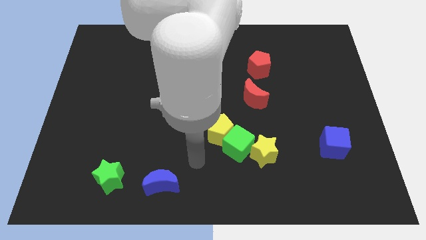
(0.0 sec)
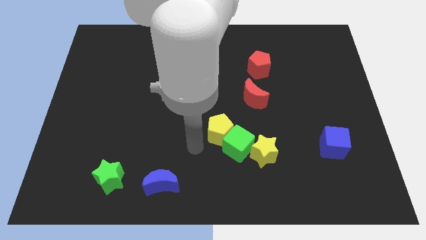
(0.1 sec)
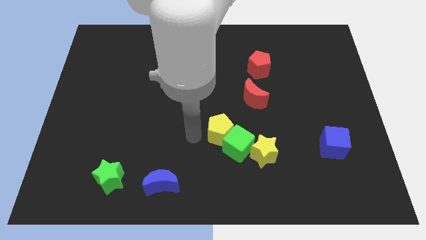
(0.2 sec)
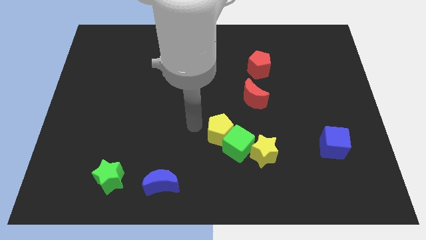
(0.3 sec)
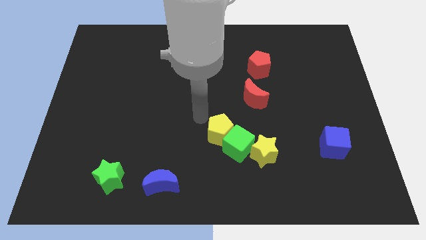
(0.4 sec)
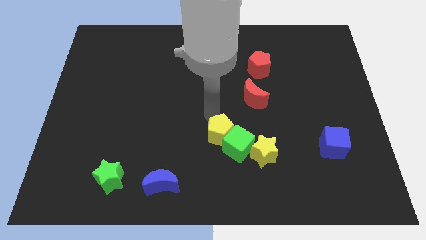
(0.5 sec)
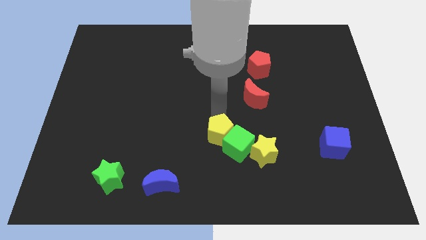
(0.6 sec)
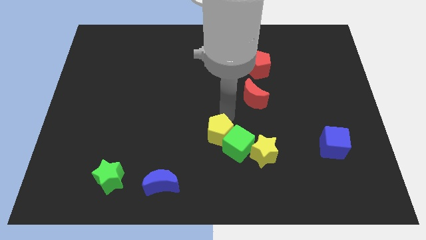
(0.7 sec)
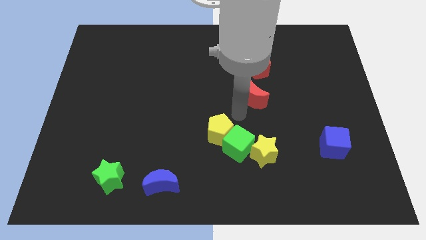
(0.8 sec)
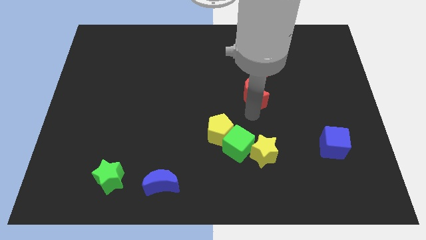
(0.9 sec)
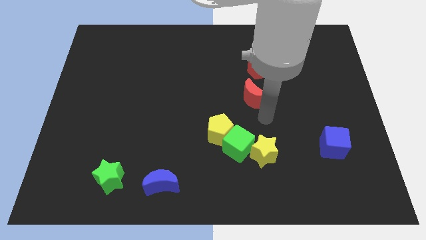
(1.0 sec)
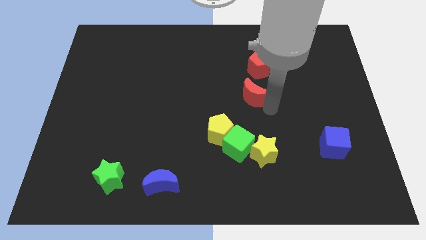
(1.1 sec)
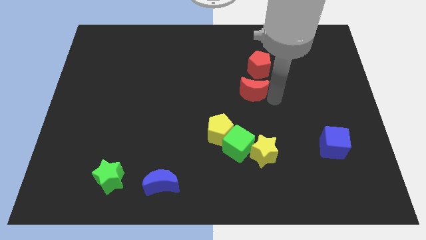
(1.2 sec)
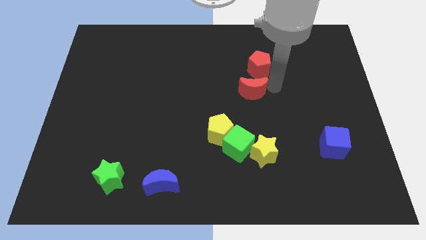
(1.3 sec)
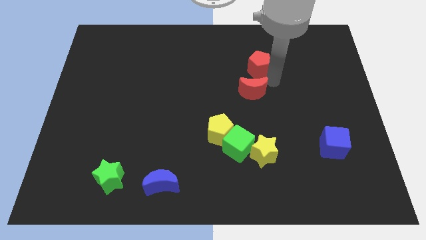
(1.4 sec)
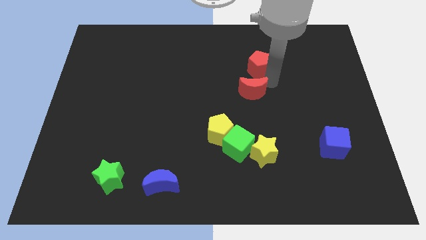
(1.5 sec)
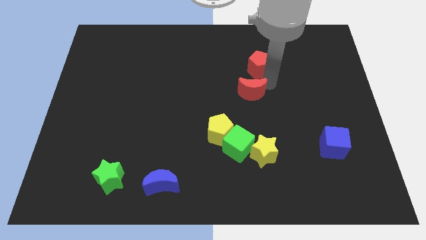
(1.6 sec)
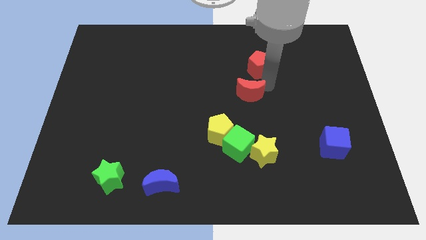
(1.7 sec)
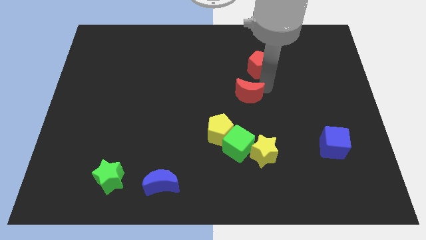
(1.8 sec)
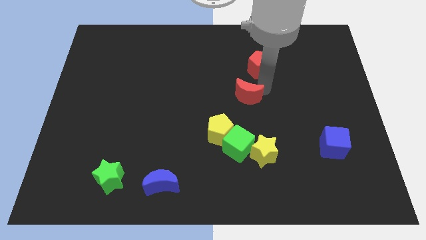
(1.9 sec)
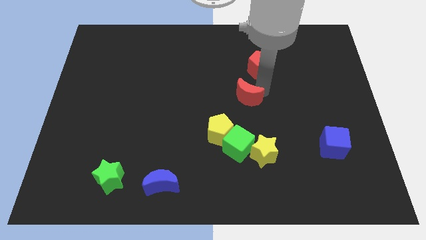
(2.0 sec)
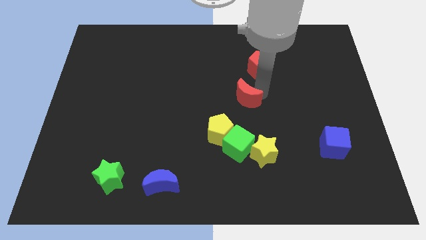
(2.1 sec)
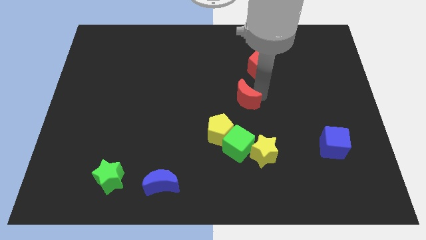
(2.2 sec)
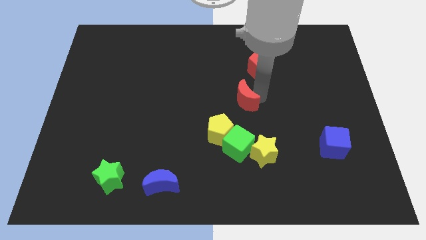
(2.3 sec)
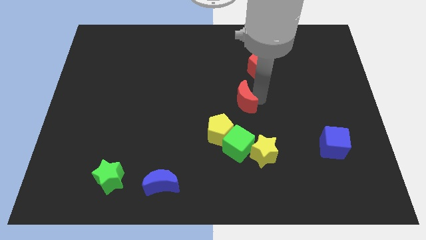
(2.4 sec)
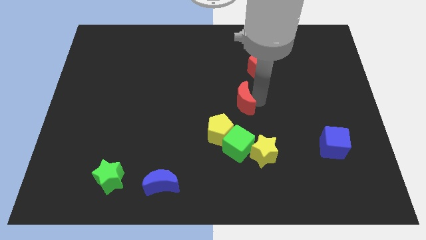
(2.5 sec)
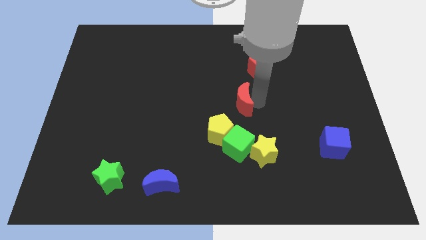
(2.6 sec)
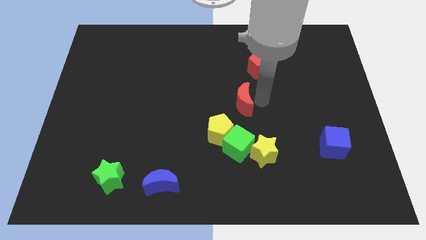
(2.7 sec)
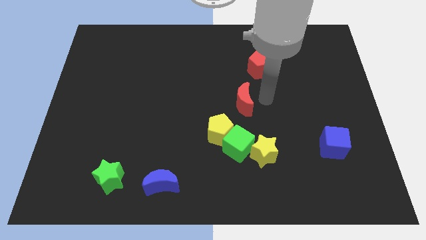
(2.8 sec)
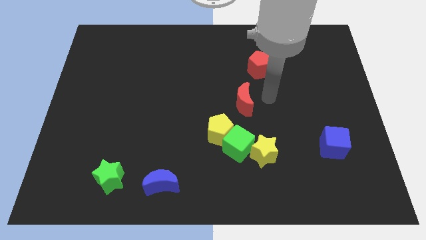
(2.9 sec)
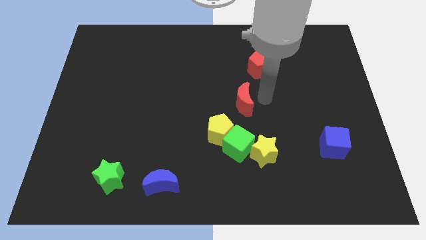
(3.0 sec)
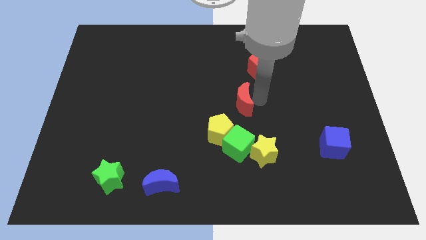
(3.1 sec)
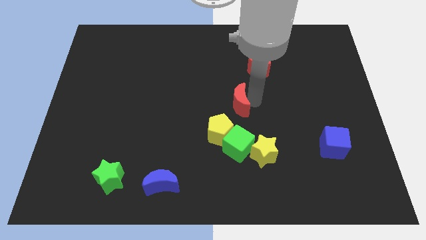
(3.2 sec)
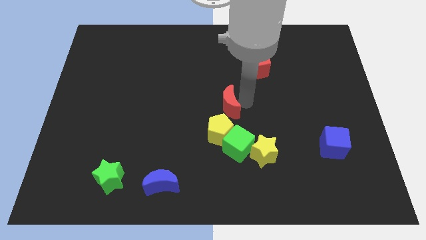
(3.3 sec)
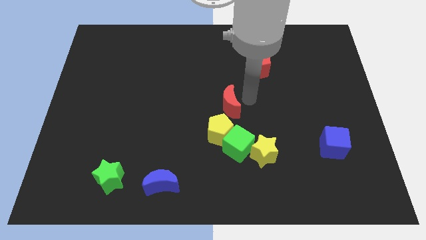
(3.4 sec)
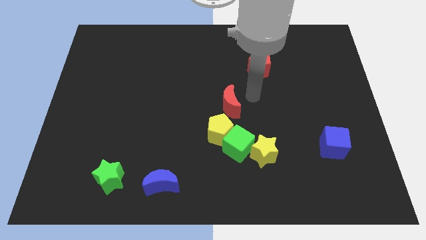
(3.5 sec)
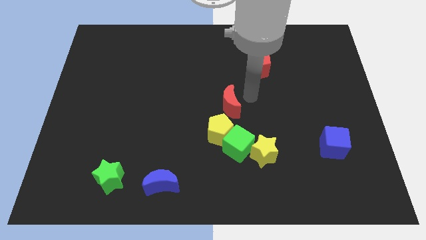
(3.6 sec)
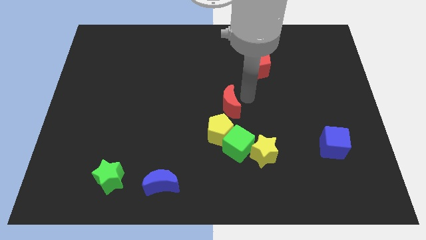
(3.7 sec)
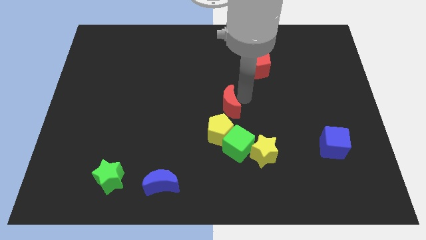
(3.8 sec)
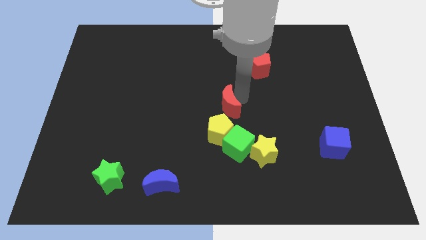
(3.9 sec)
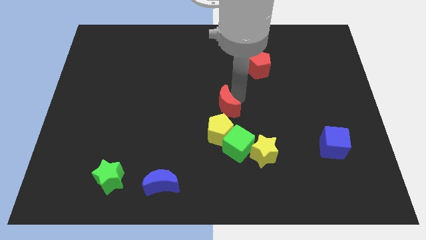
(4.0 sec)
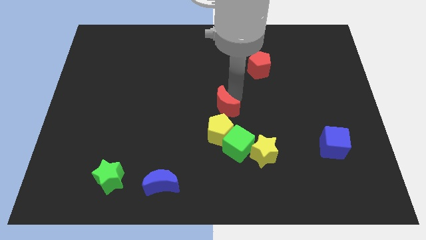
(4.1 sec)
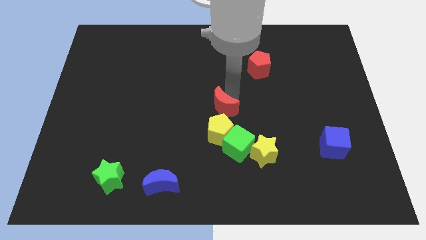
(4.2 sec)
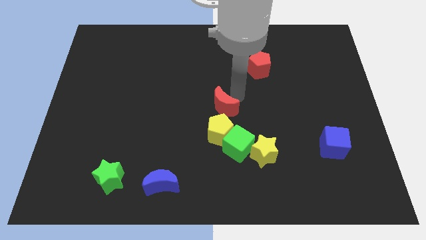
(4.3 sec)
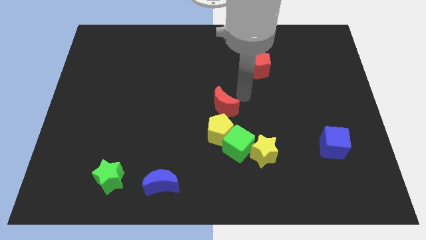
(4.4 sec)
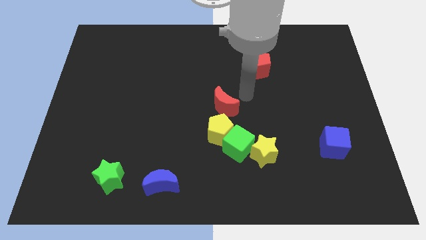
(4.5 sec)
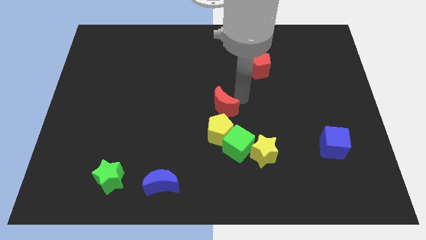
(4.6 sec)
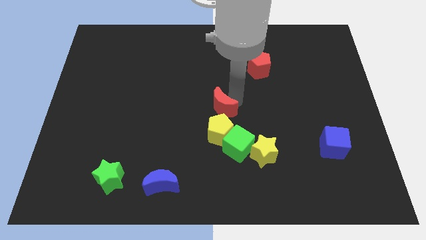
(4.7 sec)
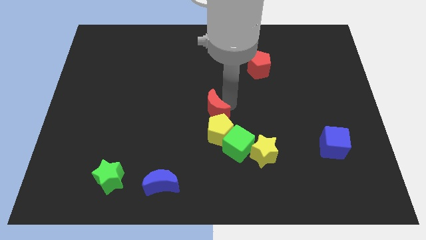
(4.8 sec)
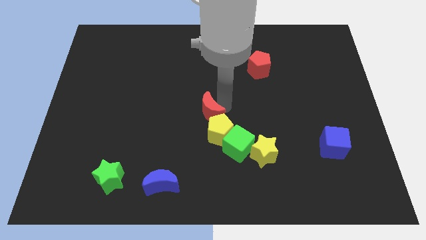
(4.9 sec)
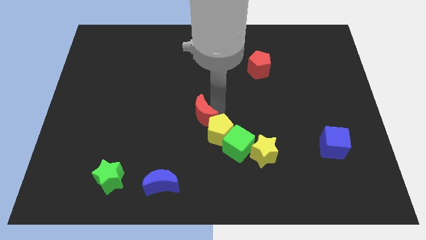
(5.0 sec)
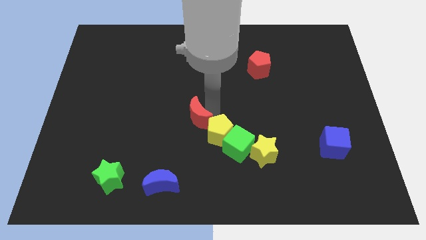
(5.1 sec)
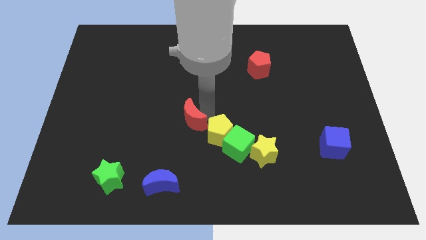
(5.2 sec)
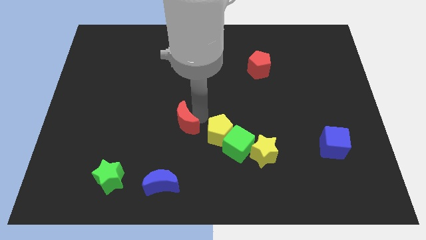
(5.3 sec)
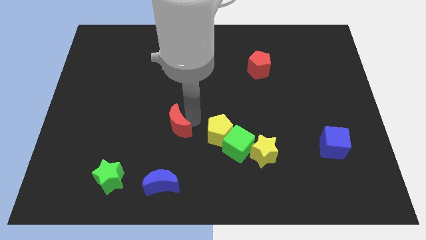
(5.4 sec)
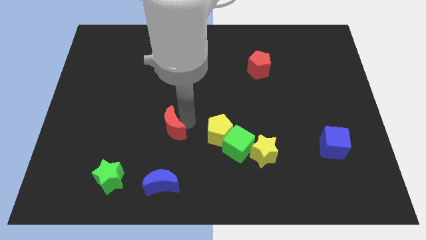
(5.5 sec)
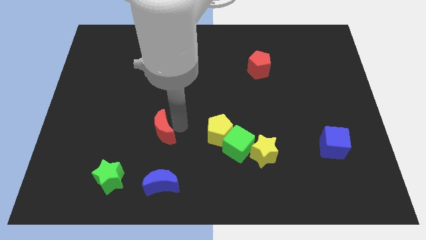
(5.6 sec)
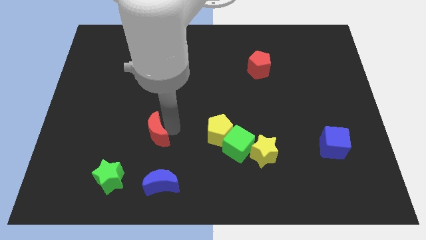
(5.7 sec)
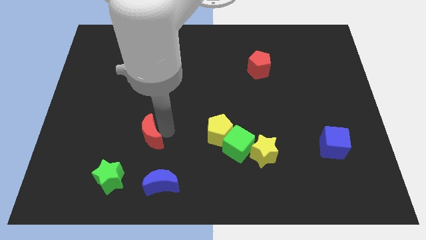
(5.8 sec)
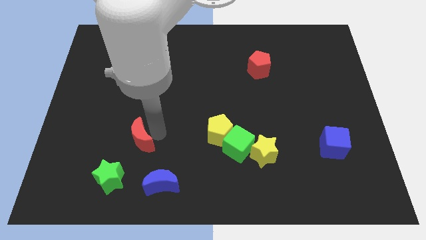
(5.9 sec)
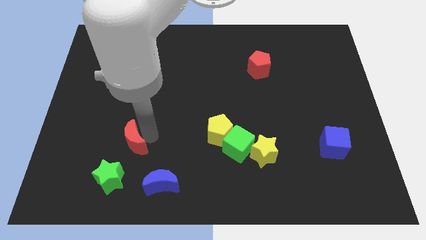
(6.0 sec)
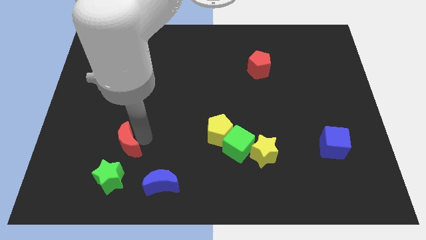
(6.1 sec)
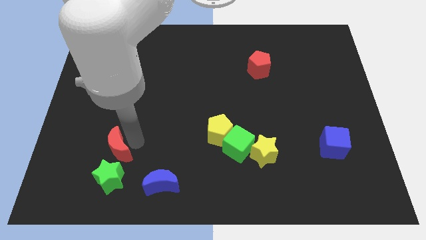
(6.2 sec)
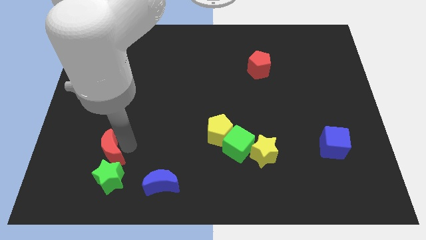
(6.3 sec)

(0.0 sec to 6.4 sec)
push the red moon to the top left of the green star

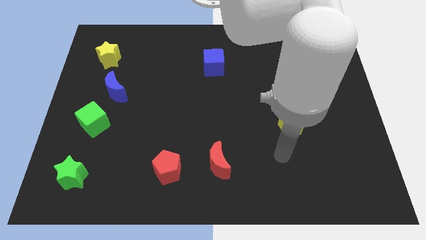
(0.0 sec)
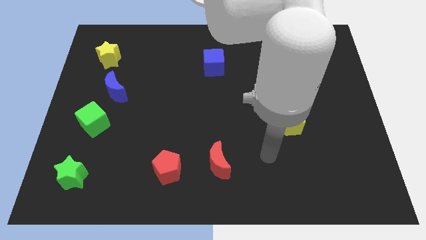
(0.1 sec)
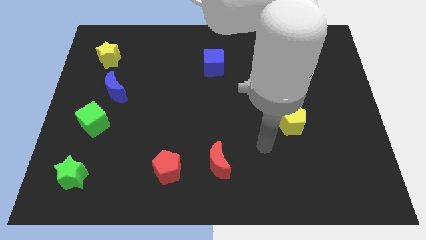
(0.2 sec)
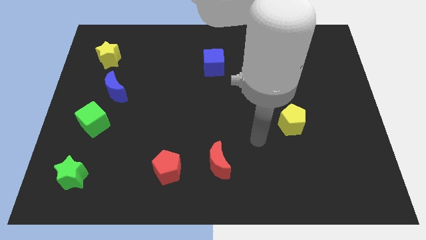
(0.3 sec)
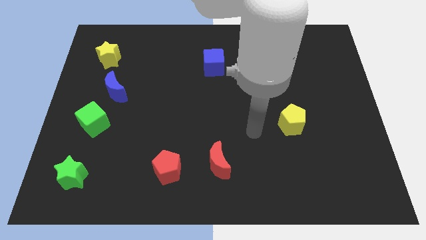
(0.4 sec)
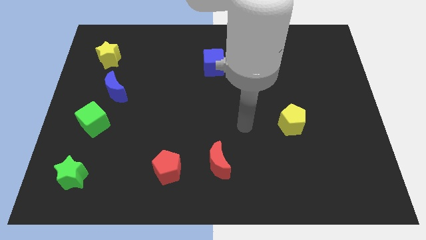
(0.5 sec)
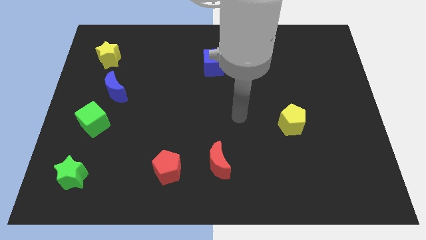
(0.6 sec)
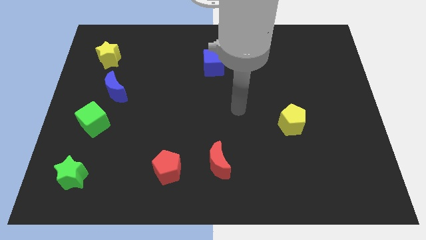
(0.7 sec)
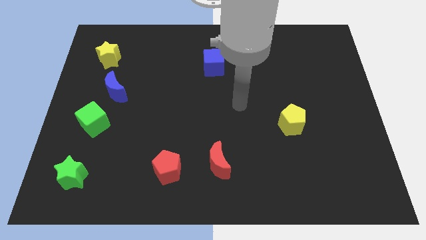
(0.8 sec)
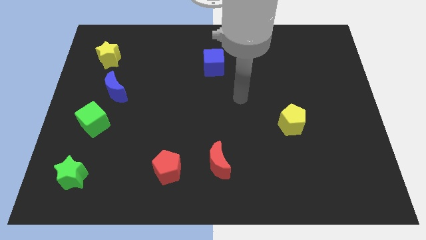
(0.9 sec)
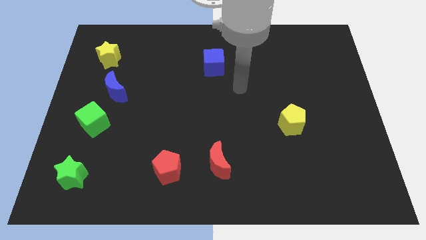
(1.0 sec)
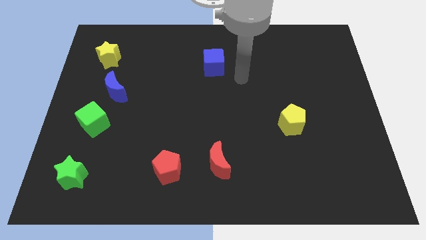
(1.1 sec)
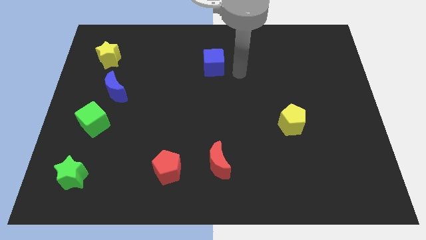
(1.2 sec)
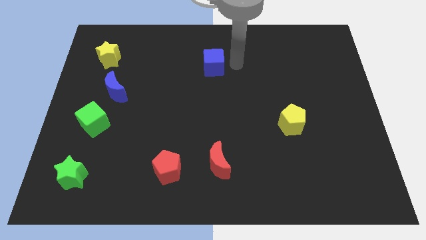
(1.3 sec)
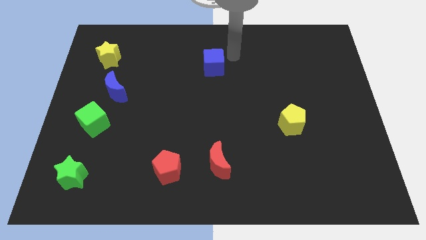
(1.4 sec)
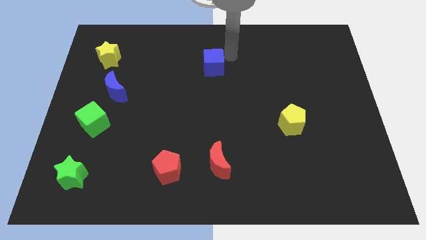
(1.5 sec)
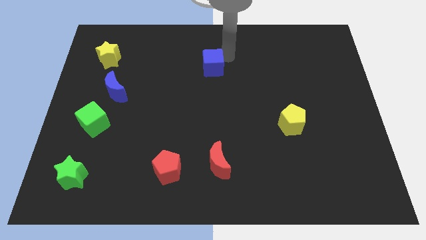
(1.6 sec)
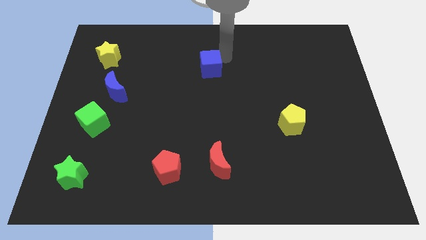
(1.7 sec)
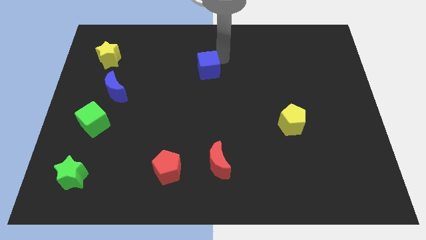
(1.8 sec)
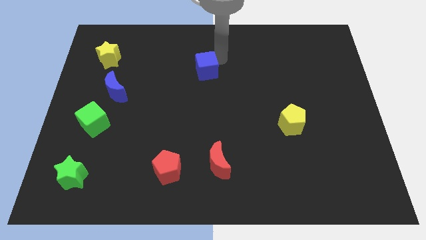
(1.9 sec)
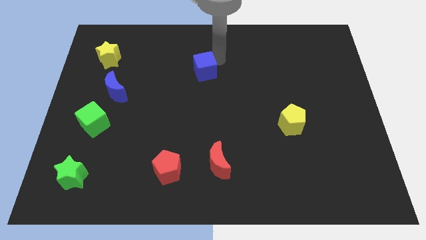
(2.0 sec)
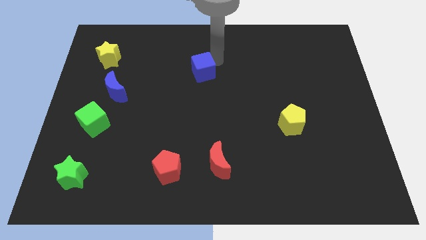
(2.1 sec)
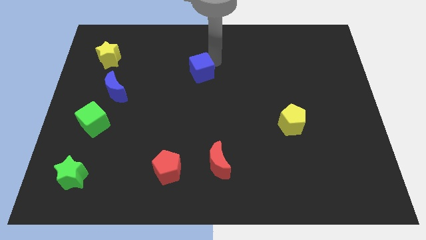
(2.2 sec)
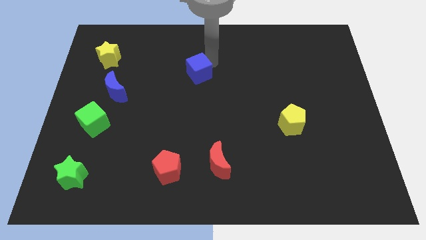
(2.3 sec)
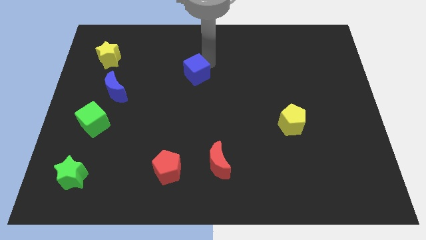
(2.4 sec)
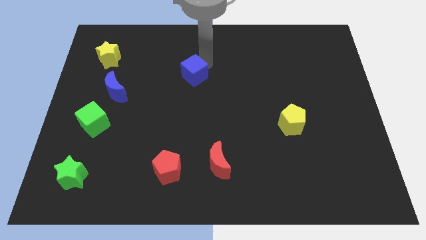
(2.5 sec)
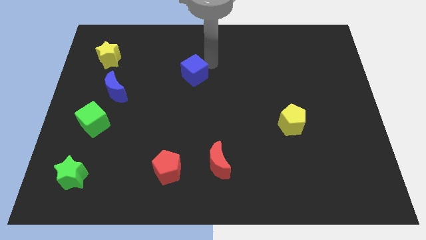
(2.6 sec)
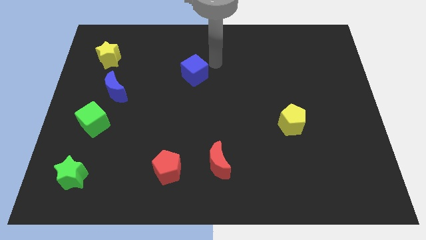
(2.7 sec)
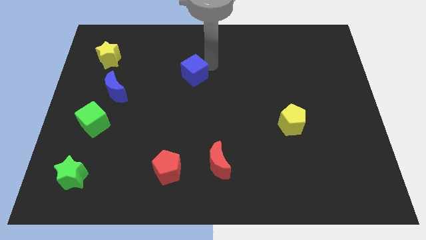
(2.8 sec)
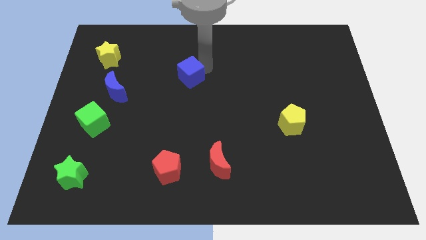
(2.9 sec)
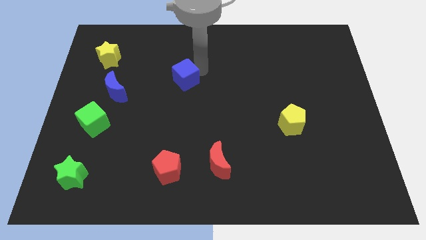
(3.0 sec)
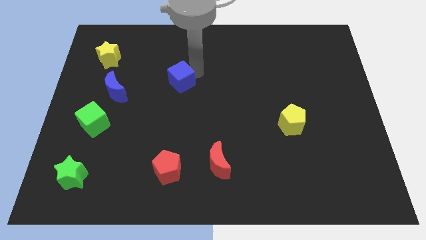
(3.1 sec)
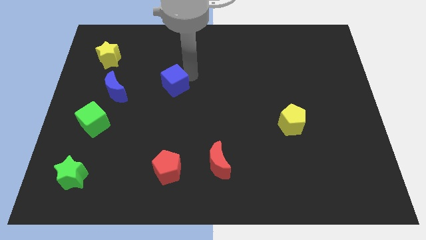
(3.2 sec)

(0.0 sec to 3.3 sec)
slide the blue cube to the right of the blue moon
